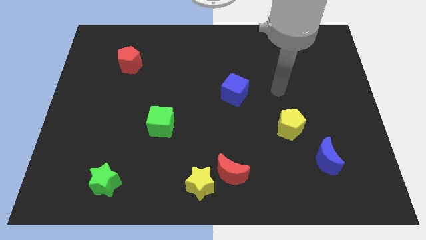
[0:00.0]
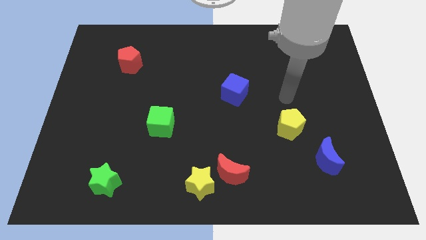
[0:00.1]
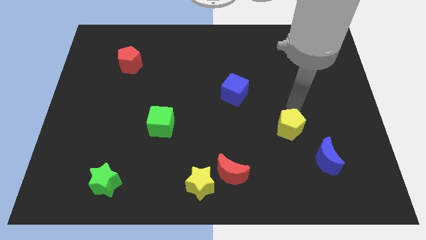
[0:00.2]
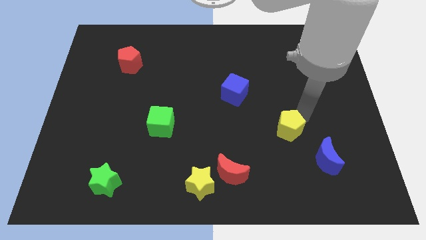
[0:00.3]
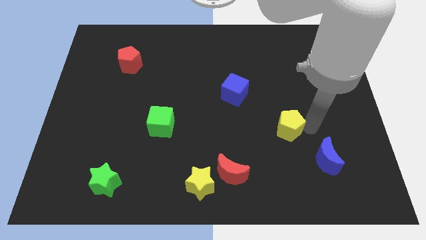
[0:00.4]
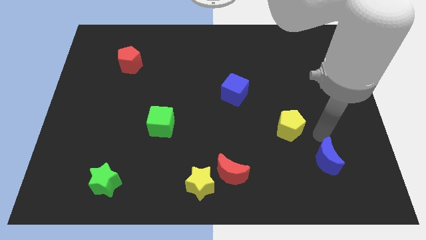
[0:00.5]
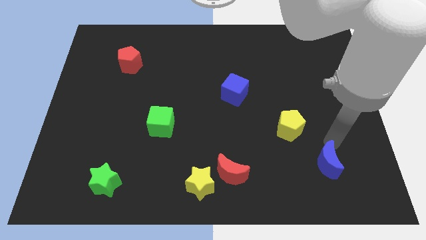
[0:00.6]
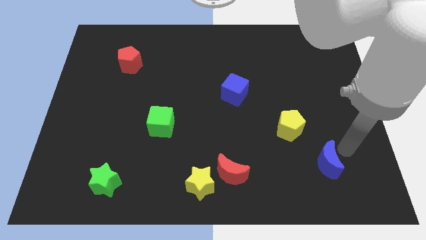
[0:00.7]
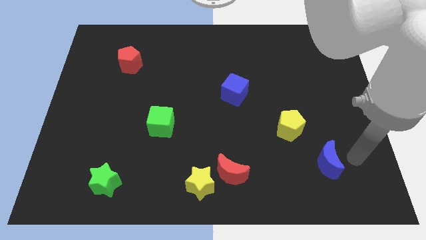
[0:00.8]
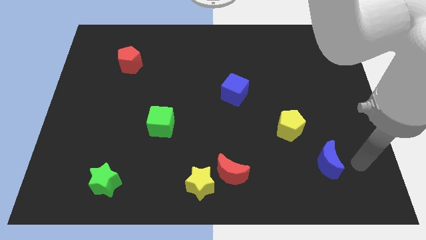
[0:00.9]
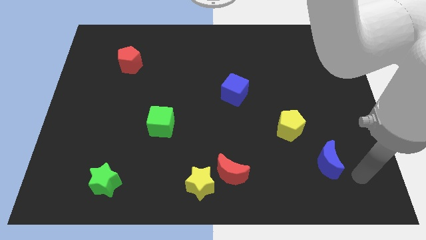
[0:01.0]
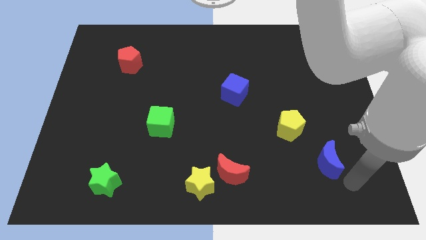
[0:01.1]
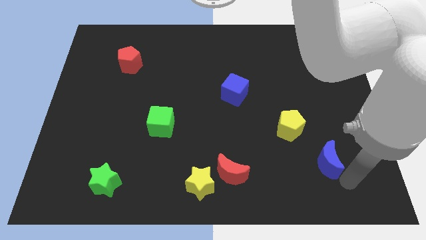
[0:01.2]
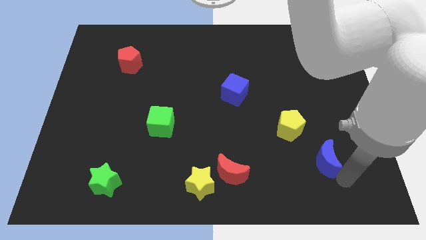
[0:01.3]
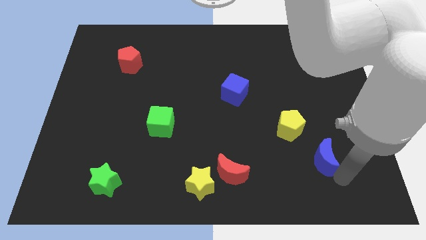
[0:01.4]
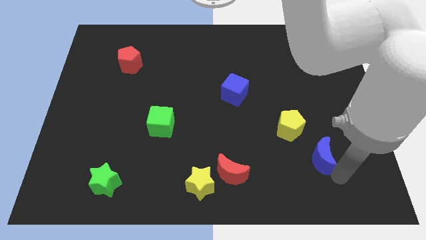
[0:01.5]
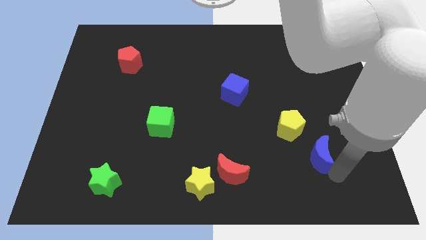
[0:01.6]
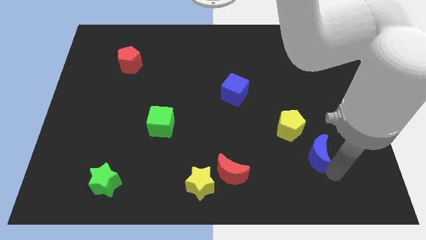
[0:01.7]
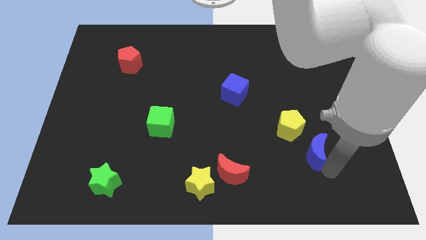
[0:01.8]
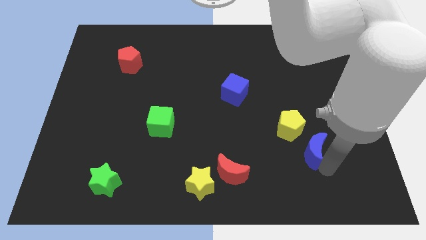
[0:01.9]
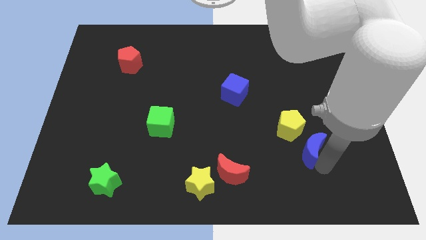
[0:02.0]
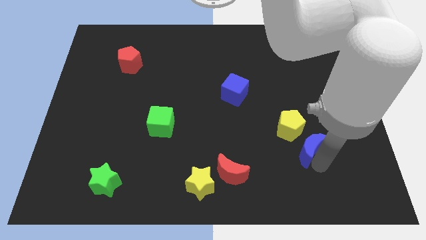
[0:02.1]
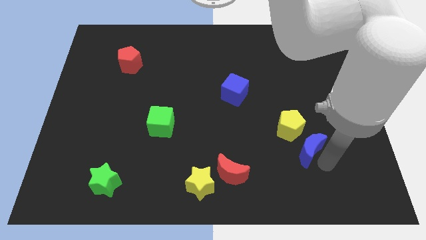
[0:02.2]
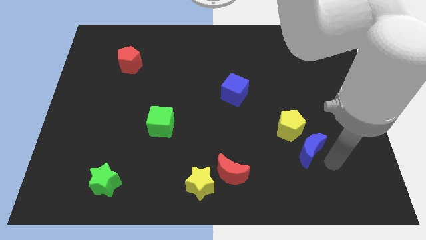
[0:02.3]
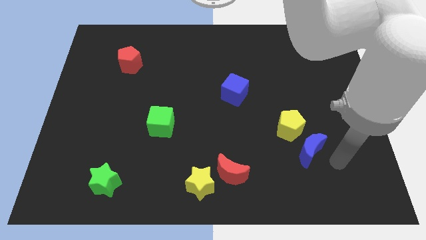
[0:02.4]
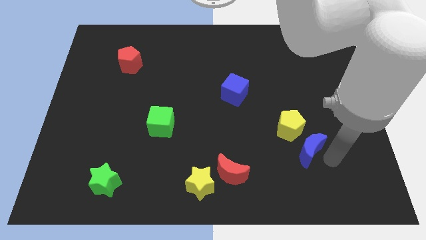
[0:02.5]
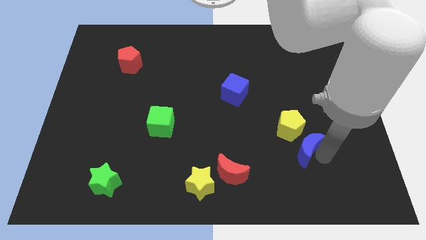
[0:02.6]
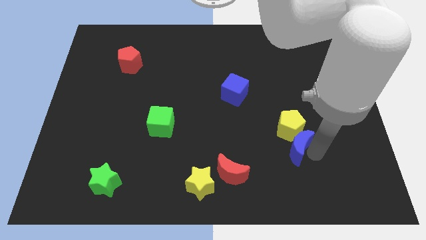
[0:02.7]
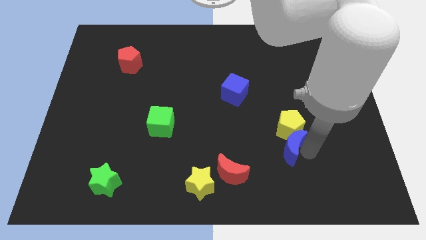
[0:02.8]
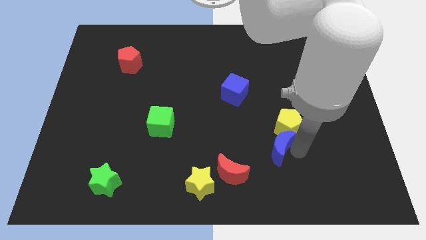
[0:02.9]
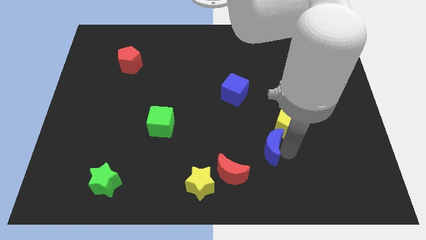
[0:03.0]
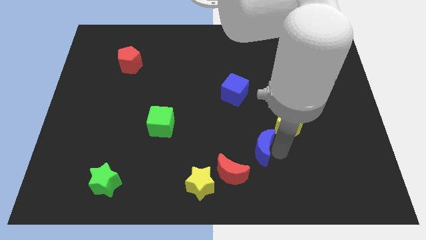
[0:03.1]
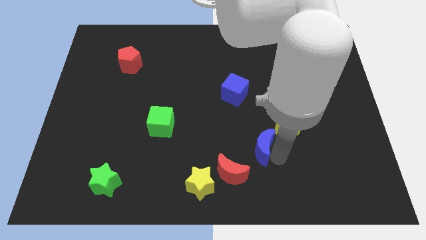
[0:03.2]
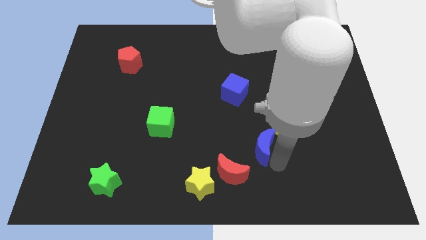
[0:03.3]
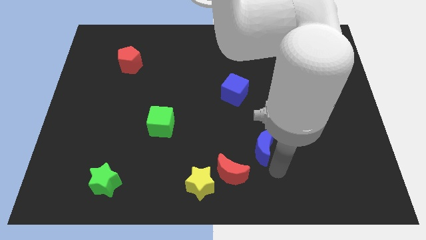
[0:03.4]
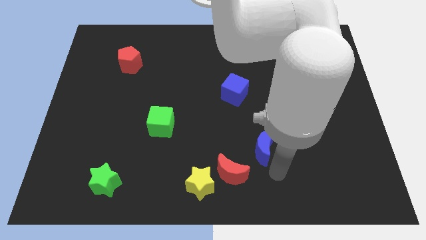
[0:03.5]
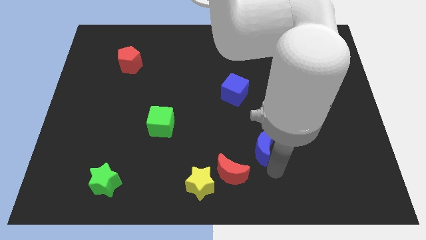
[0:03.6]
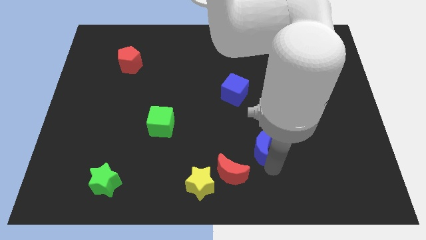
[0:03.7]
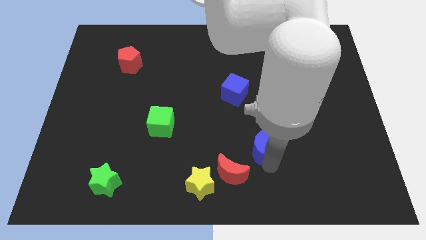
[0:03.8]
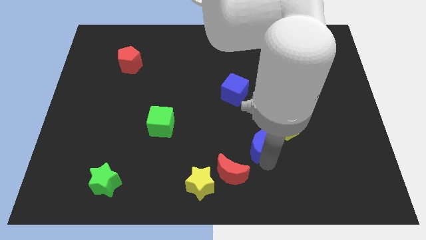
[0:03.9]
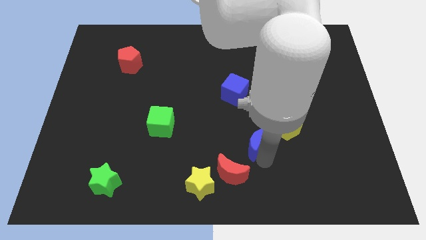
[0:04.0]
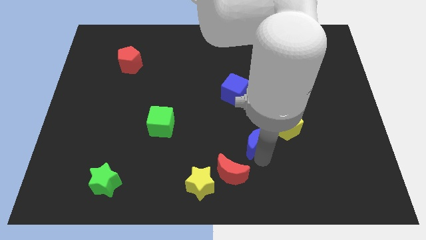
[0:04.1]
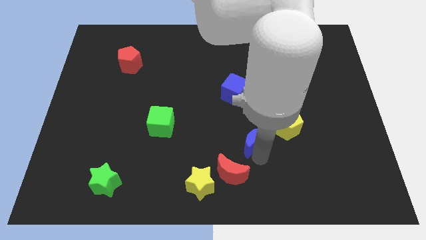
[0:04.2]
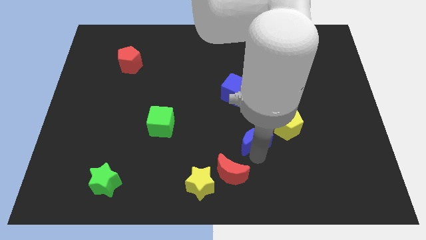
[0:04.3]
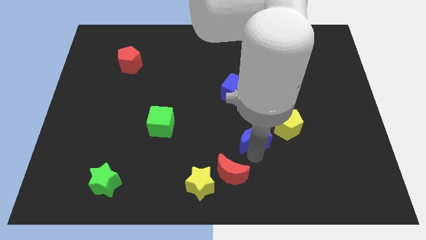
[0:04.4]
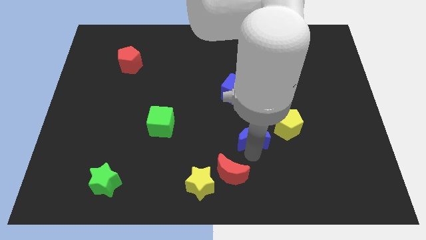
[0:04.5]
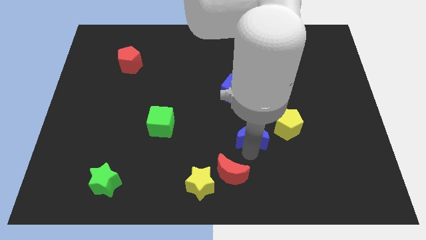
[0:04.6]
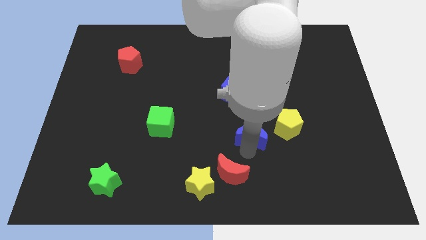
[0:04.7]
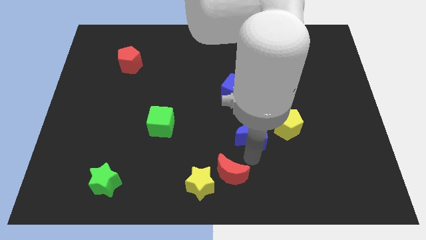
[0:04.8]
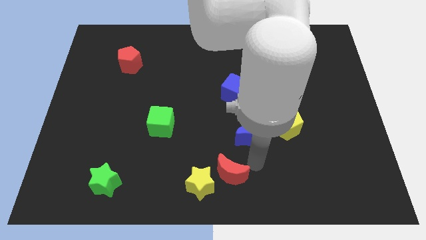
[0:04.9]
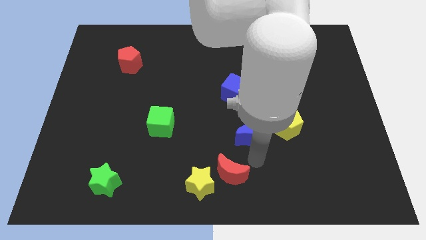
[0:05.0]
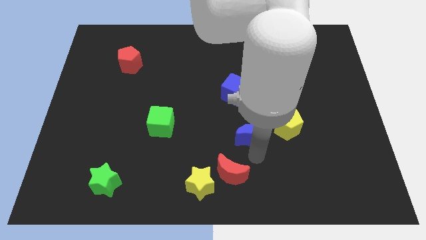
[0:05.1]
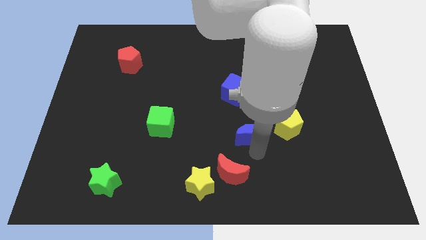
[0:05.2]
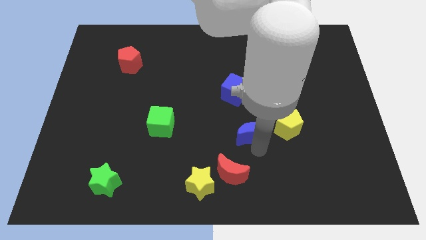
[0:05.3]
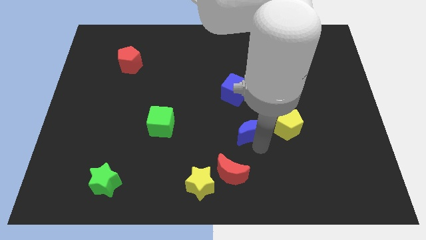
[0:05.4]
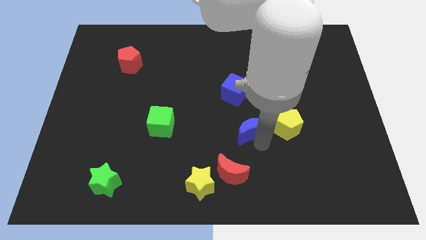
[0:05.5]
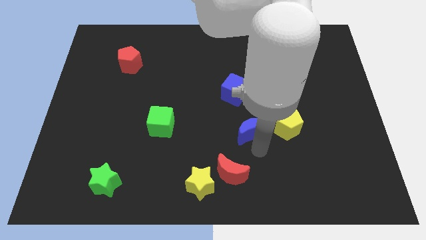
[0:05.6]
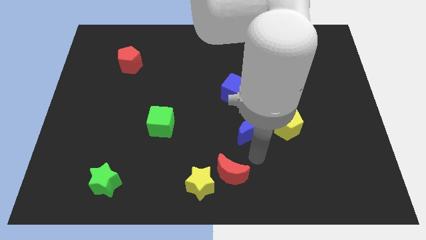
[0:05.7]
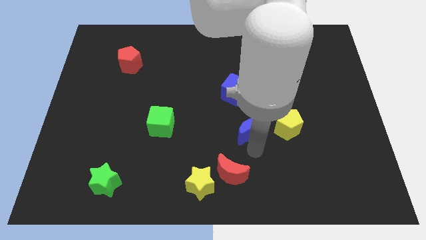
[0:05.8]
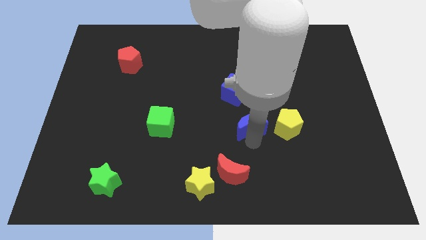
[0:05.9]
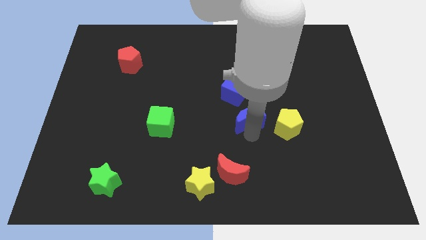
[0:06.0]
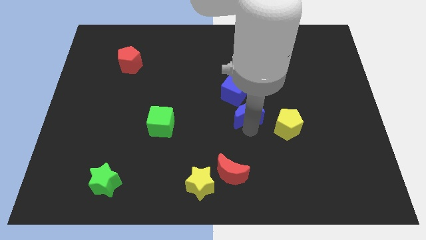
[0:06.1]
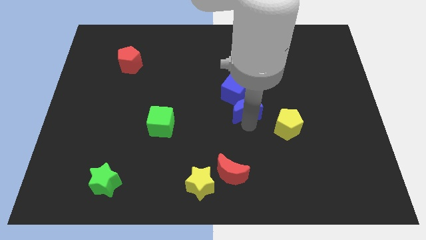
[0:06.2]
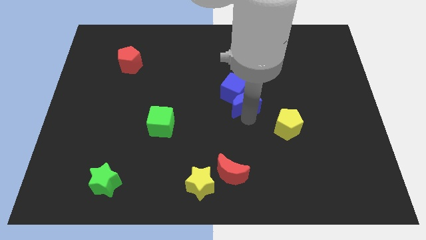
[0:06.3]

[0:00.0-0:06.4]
push the blue moon next to the blue cube

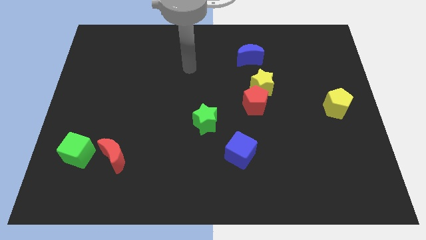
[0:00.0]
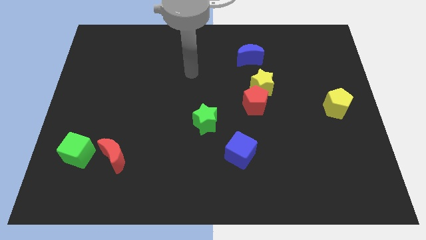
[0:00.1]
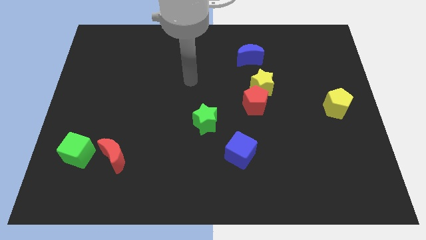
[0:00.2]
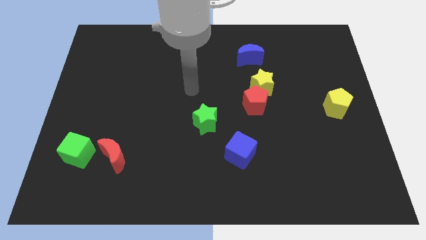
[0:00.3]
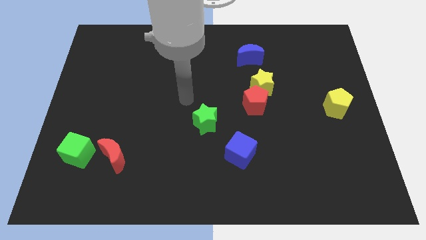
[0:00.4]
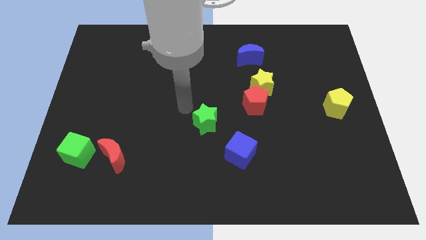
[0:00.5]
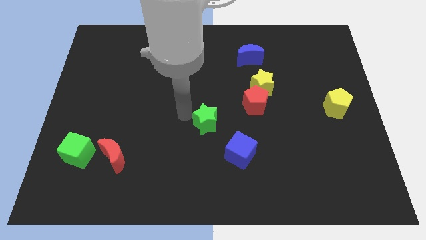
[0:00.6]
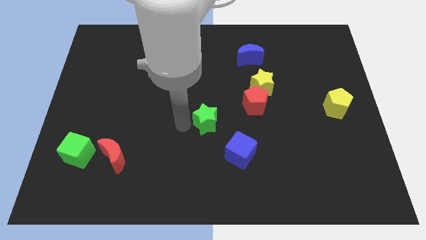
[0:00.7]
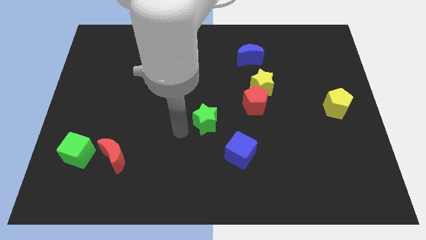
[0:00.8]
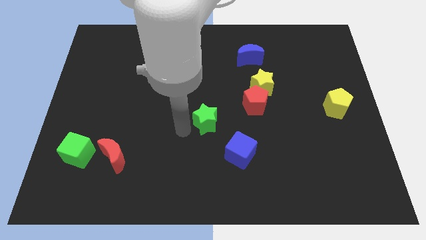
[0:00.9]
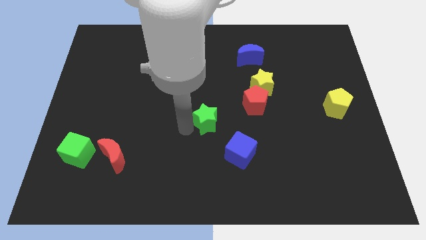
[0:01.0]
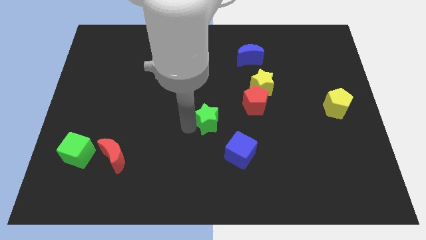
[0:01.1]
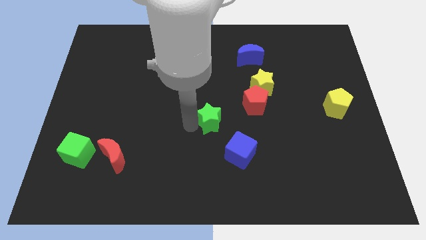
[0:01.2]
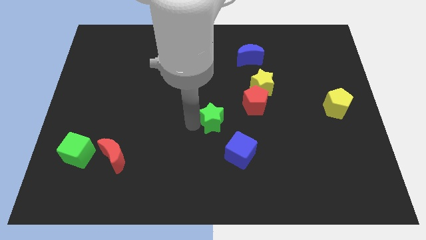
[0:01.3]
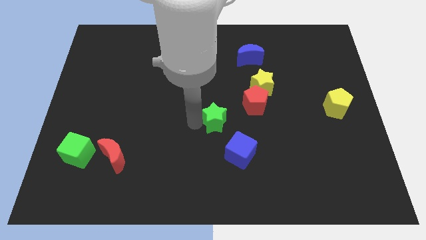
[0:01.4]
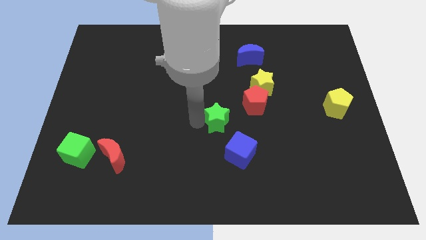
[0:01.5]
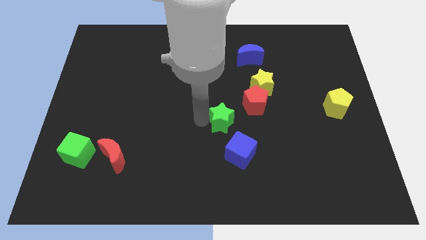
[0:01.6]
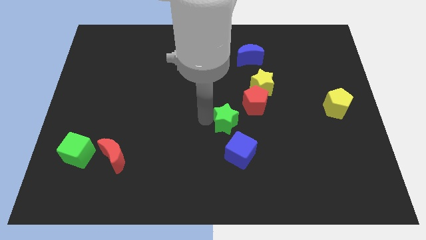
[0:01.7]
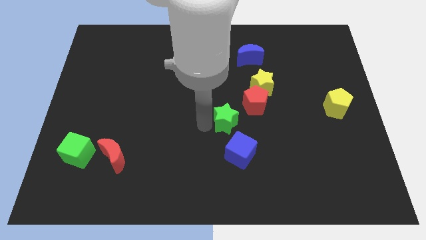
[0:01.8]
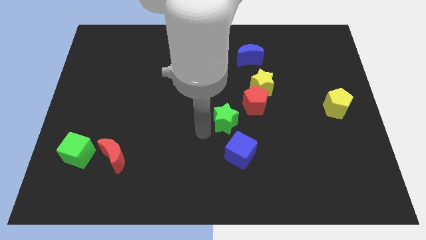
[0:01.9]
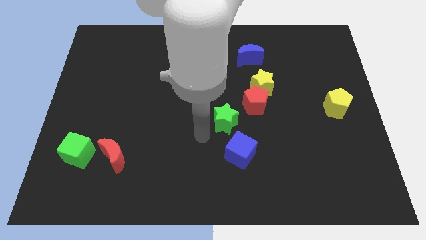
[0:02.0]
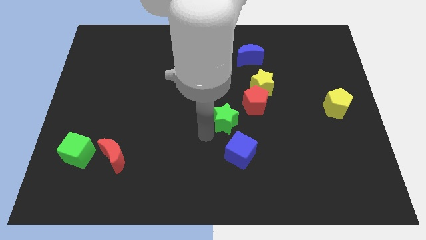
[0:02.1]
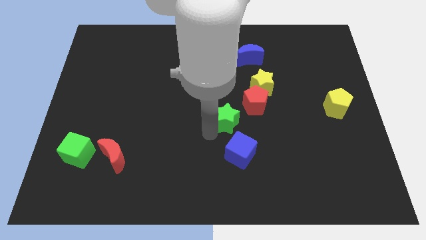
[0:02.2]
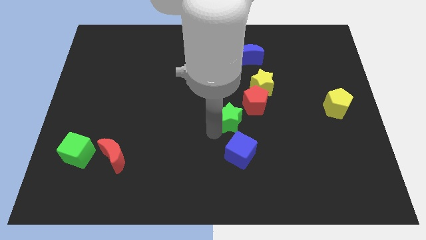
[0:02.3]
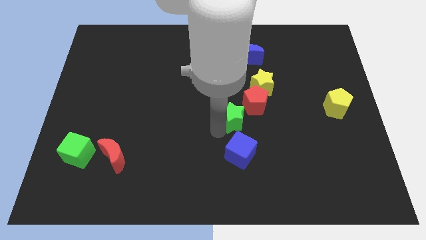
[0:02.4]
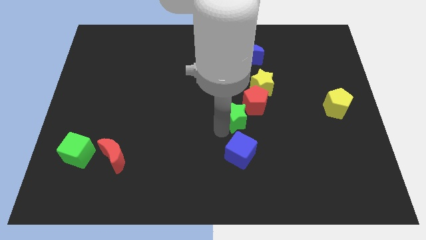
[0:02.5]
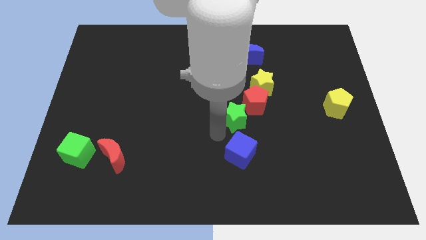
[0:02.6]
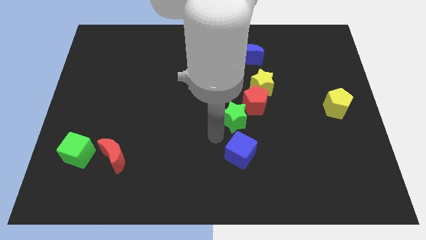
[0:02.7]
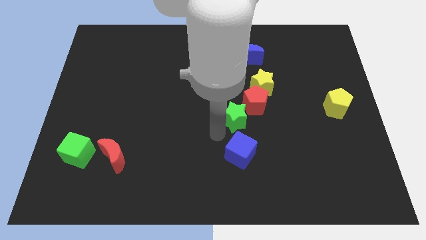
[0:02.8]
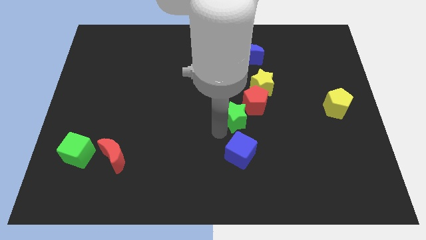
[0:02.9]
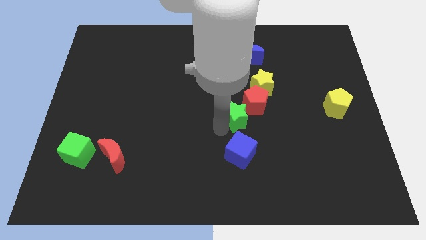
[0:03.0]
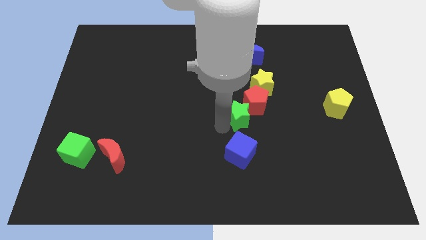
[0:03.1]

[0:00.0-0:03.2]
push the green star towards the red pentagon
